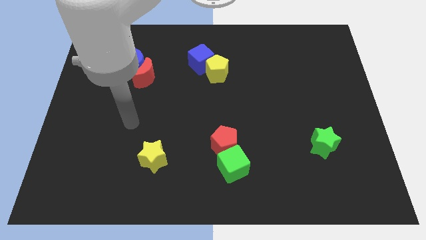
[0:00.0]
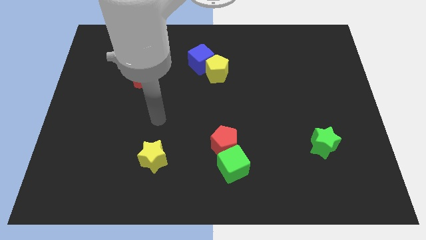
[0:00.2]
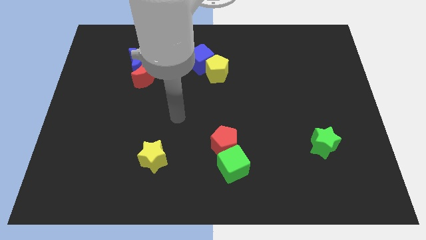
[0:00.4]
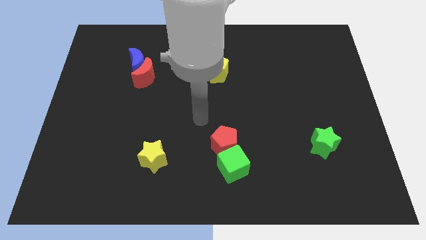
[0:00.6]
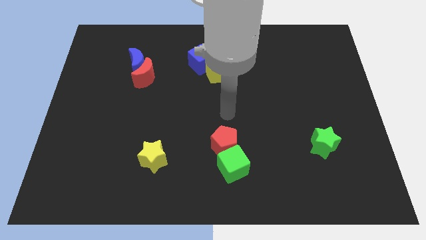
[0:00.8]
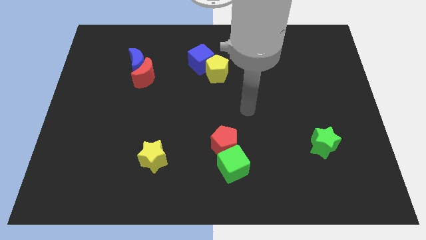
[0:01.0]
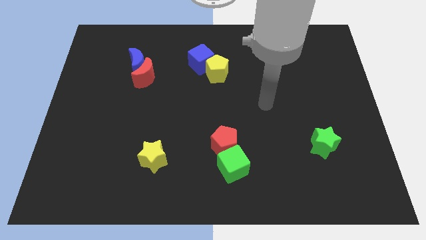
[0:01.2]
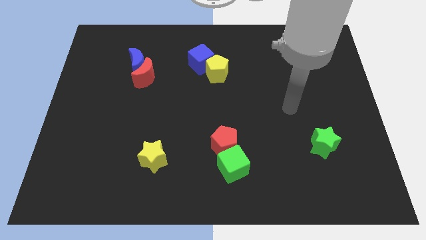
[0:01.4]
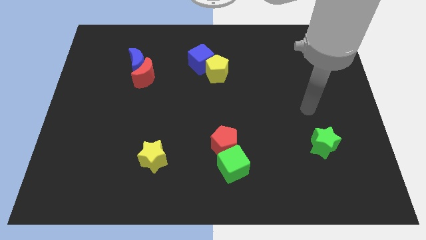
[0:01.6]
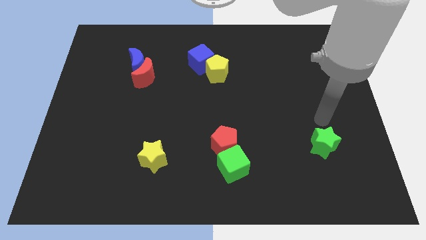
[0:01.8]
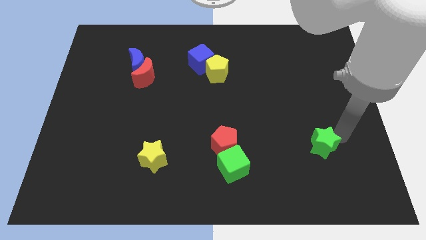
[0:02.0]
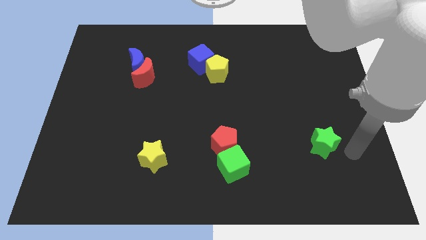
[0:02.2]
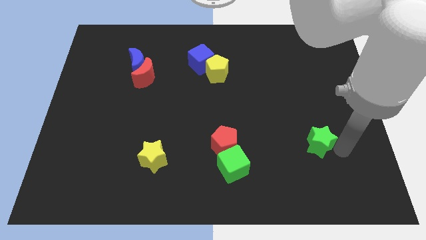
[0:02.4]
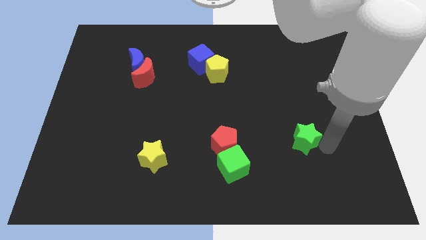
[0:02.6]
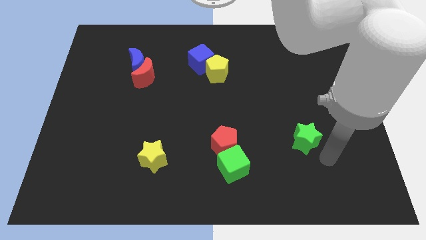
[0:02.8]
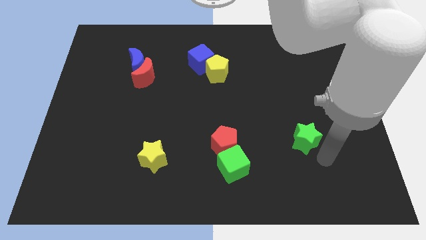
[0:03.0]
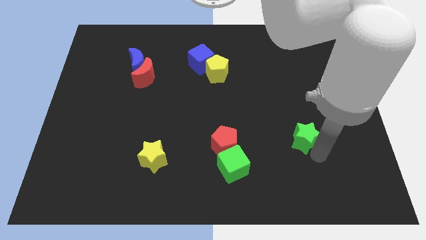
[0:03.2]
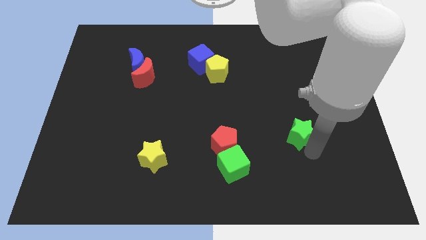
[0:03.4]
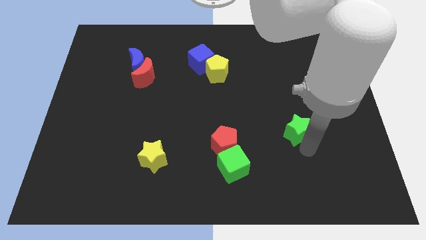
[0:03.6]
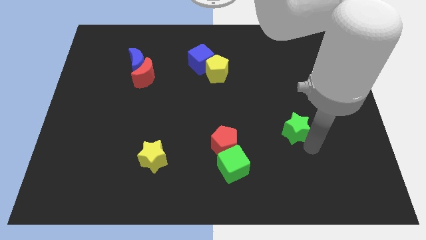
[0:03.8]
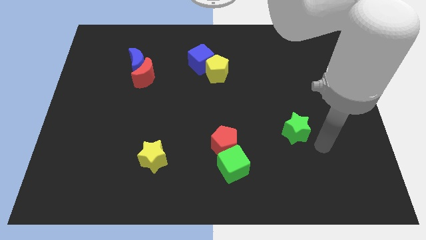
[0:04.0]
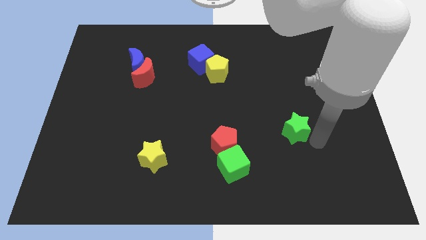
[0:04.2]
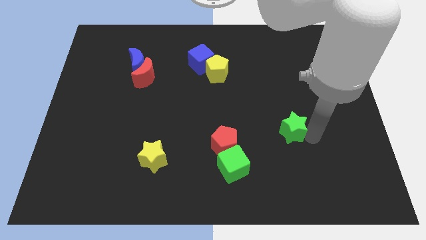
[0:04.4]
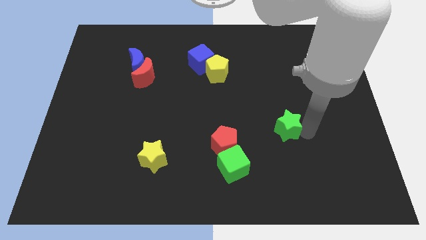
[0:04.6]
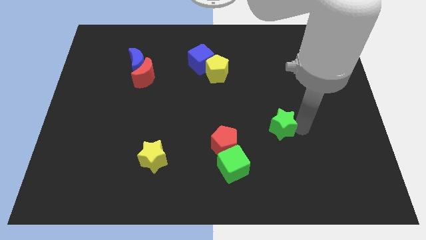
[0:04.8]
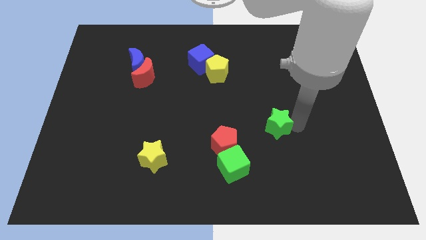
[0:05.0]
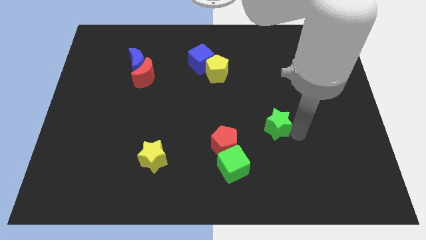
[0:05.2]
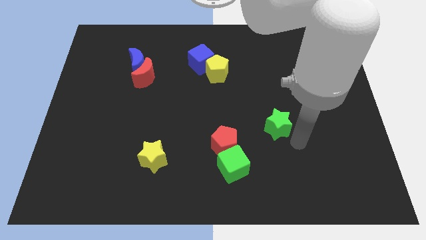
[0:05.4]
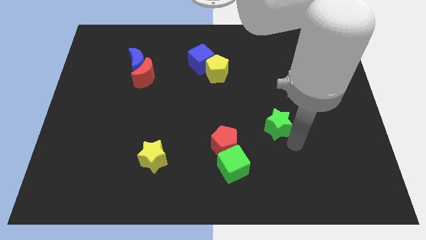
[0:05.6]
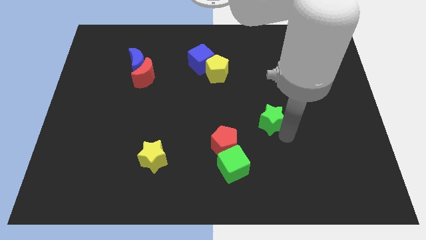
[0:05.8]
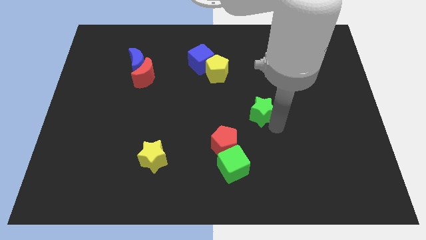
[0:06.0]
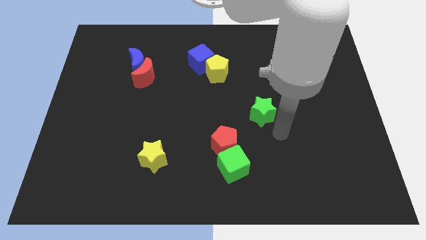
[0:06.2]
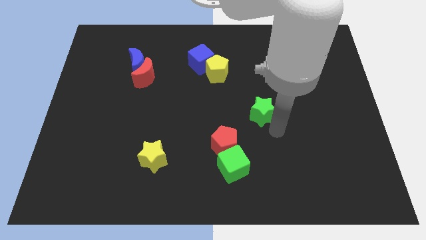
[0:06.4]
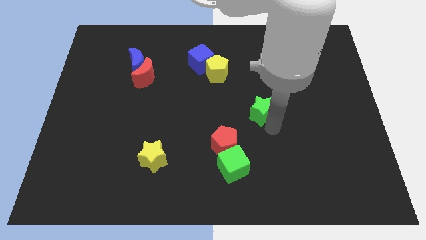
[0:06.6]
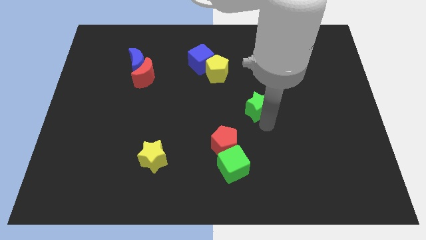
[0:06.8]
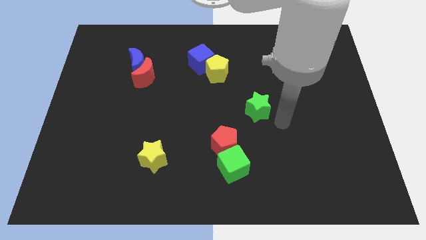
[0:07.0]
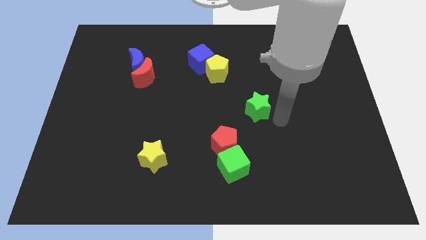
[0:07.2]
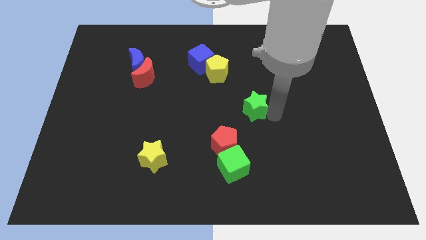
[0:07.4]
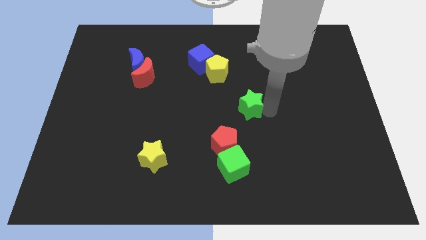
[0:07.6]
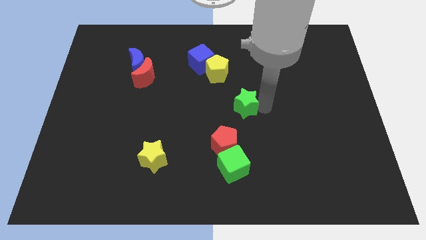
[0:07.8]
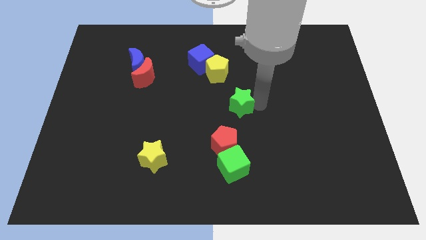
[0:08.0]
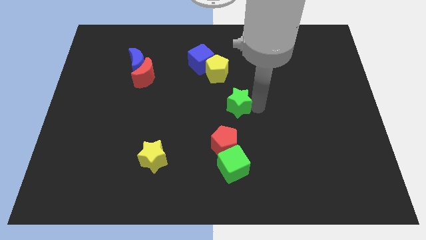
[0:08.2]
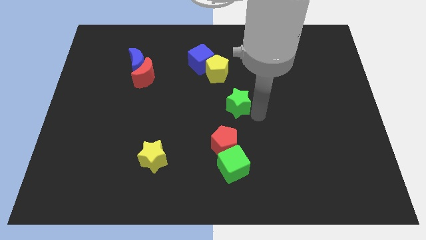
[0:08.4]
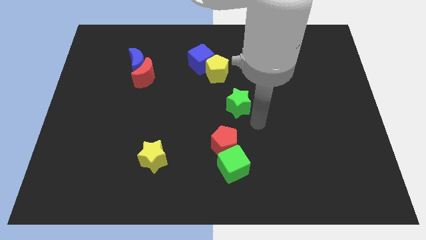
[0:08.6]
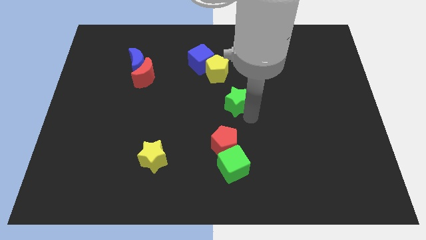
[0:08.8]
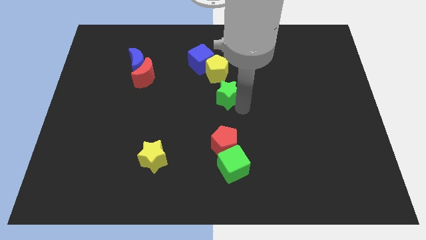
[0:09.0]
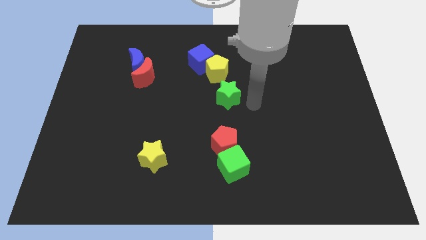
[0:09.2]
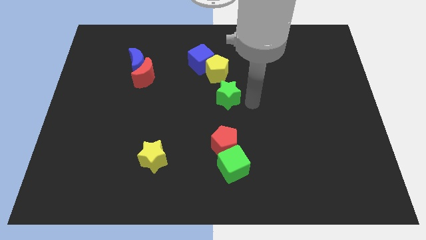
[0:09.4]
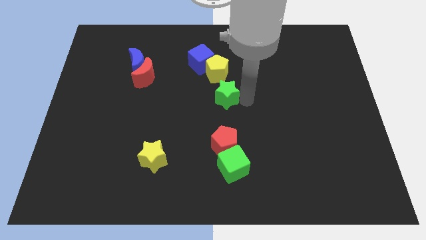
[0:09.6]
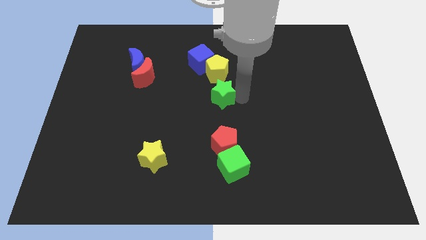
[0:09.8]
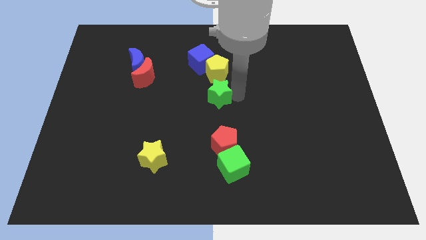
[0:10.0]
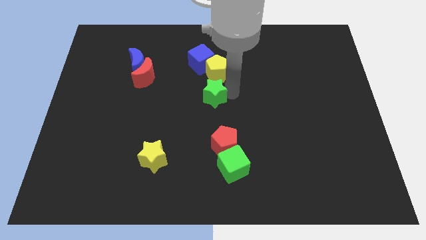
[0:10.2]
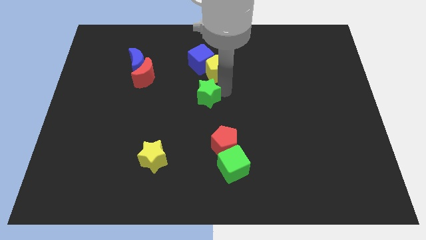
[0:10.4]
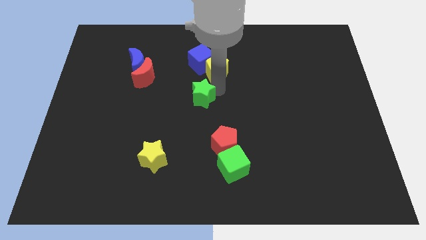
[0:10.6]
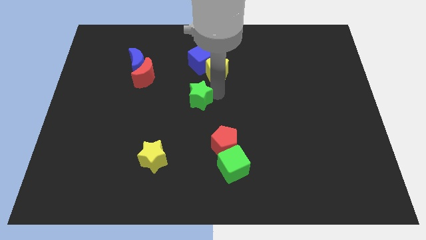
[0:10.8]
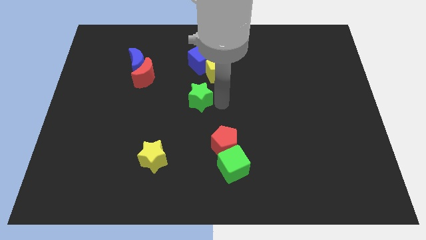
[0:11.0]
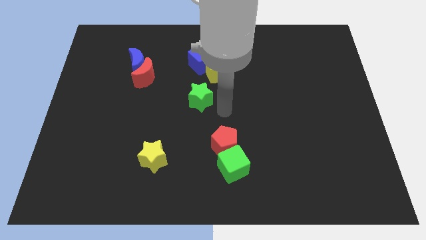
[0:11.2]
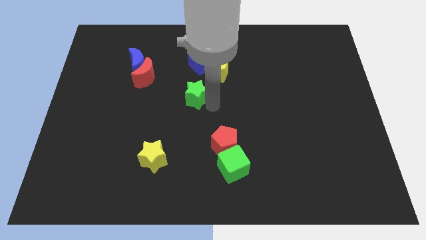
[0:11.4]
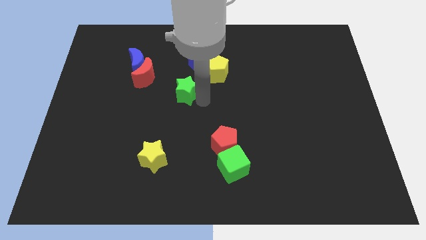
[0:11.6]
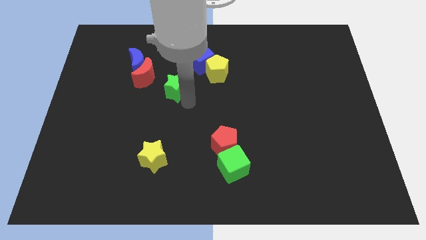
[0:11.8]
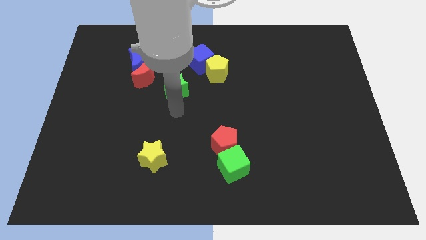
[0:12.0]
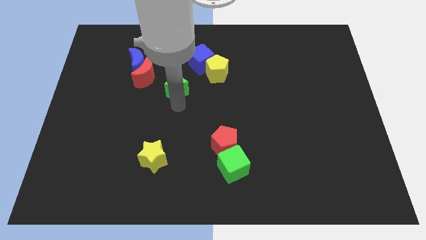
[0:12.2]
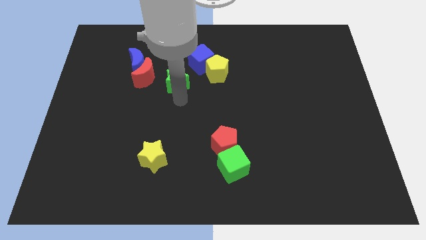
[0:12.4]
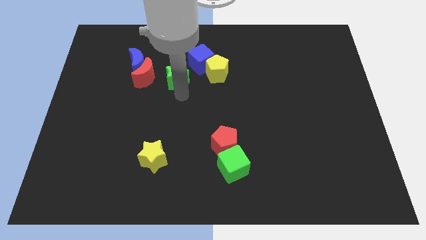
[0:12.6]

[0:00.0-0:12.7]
push the green star to the right of the blue moon
